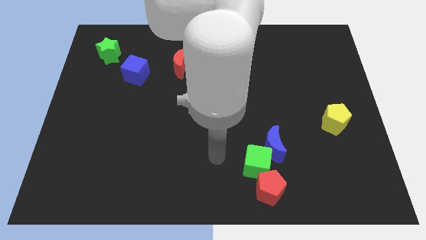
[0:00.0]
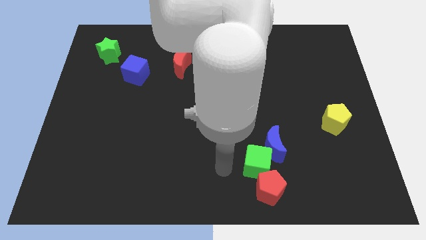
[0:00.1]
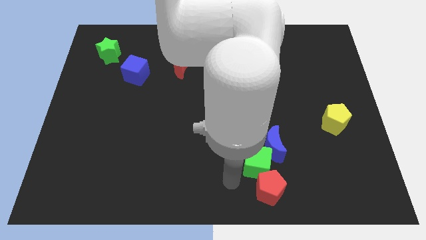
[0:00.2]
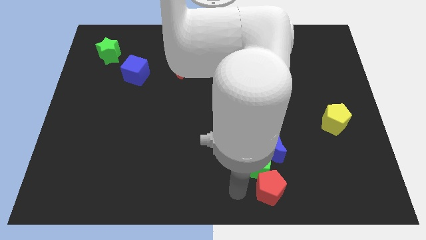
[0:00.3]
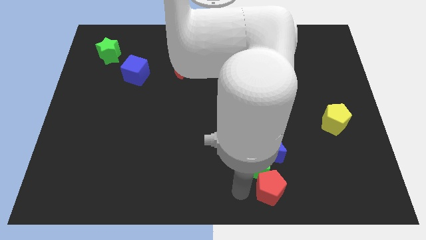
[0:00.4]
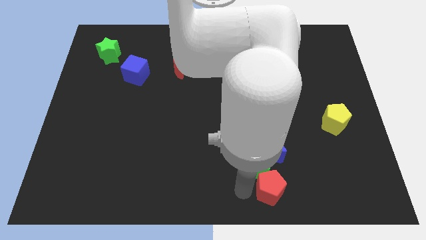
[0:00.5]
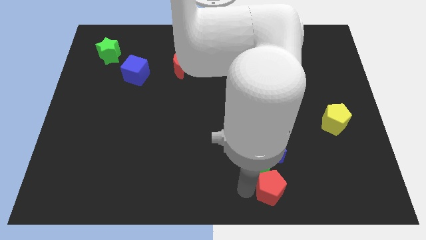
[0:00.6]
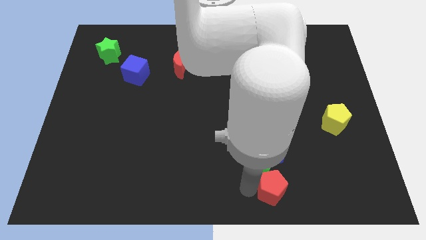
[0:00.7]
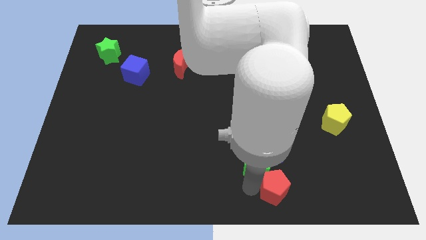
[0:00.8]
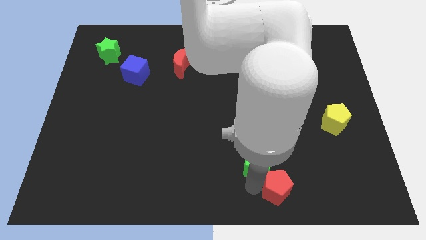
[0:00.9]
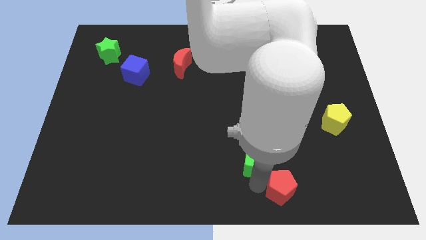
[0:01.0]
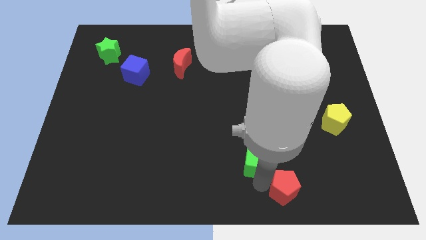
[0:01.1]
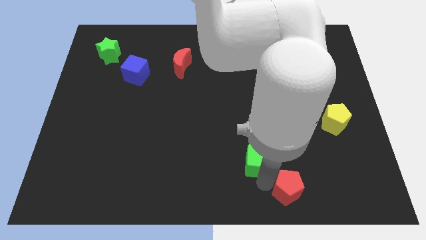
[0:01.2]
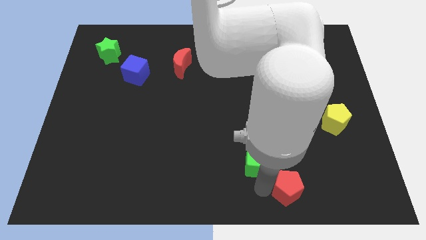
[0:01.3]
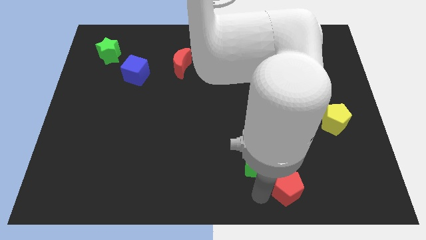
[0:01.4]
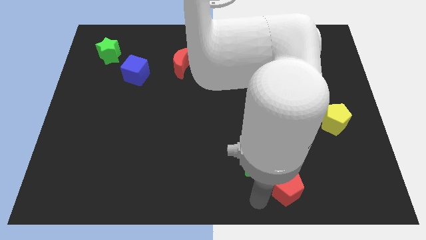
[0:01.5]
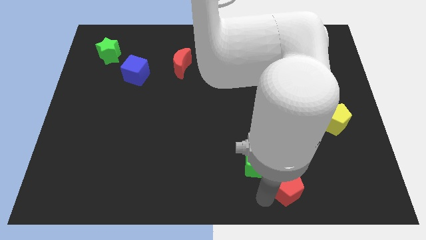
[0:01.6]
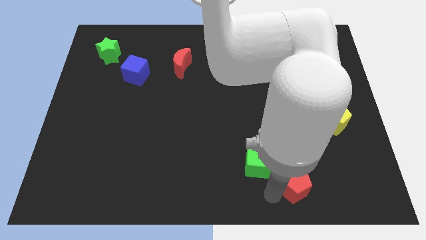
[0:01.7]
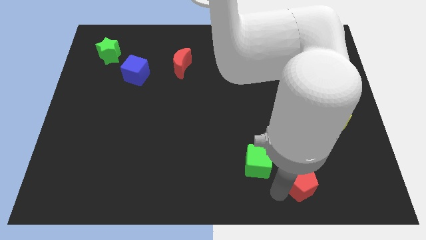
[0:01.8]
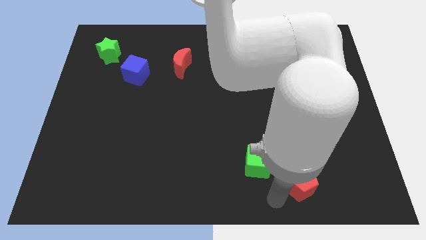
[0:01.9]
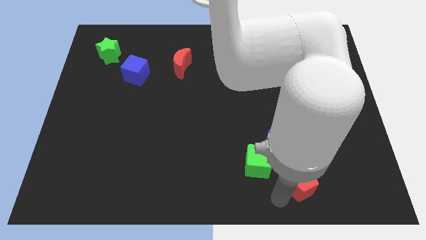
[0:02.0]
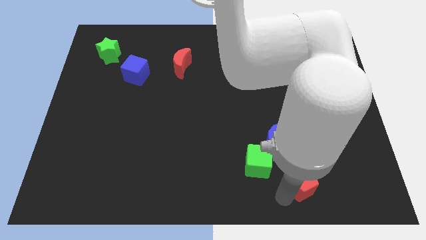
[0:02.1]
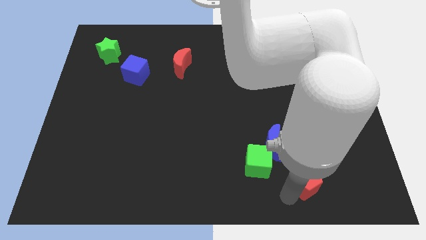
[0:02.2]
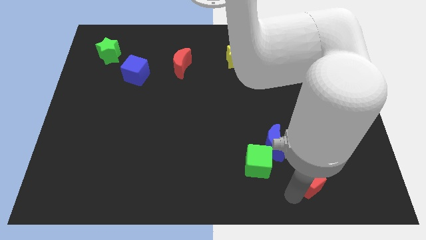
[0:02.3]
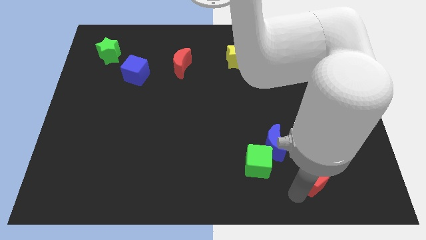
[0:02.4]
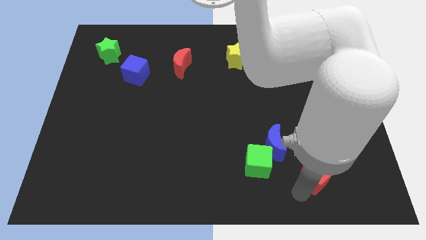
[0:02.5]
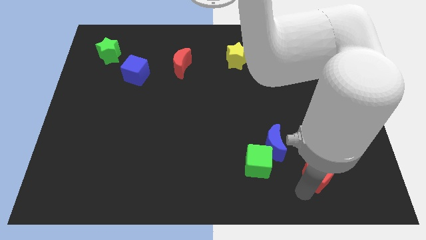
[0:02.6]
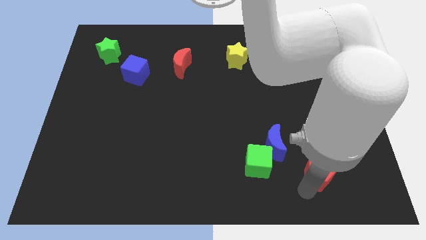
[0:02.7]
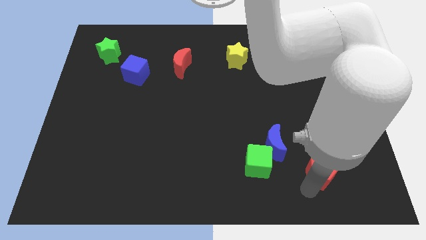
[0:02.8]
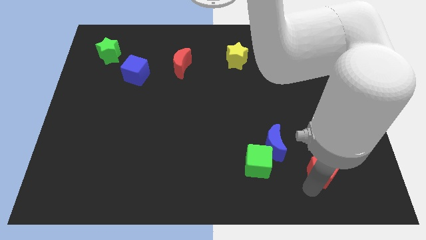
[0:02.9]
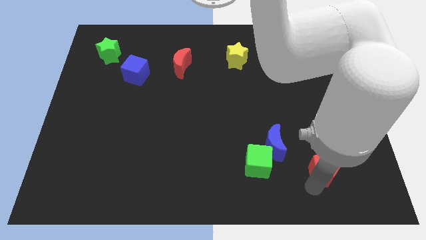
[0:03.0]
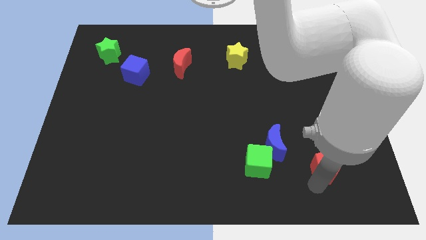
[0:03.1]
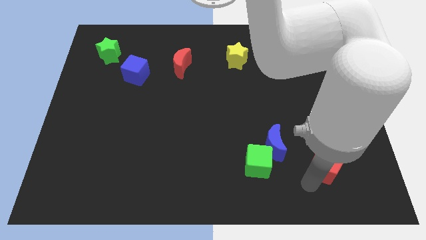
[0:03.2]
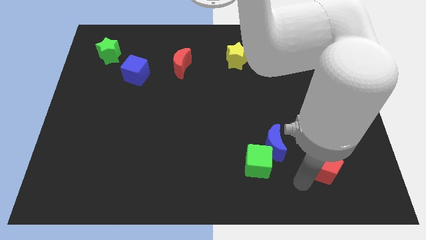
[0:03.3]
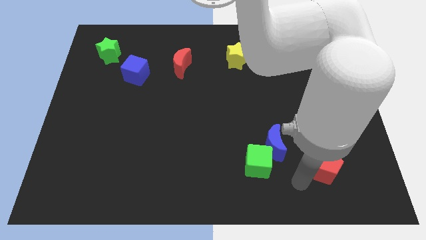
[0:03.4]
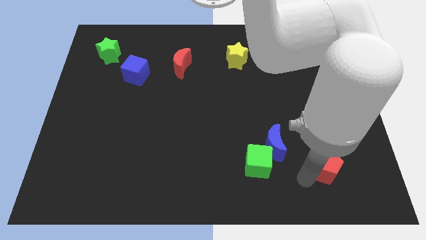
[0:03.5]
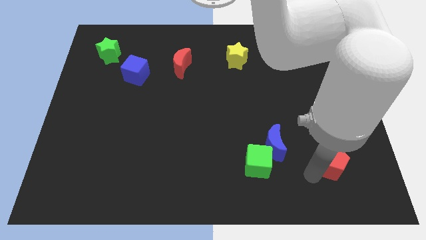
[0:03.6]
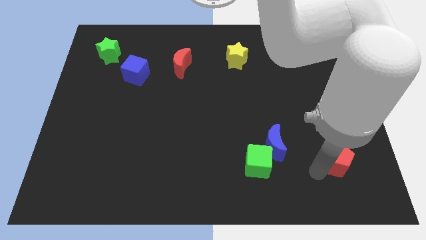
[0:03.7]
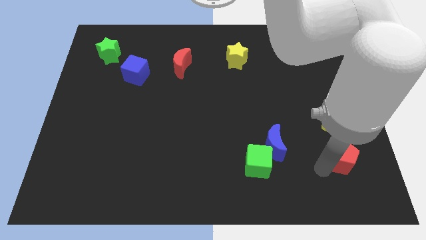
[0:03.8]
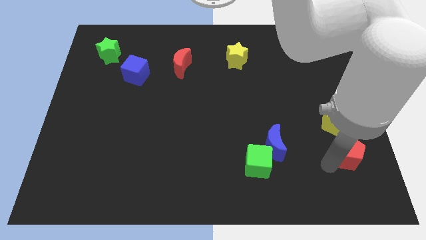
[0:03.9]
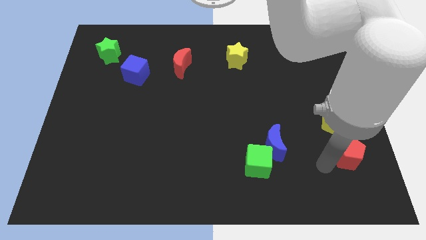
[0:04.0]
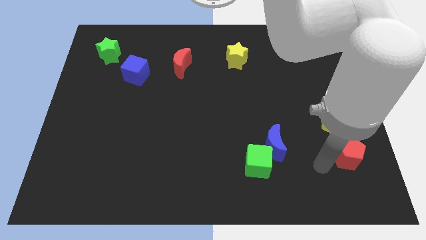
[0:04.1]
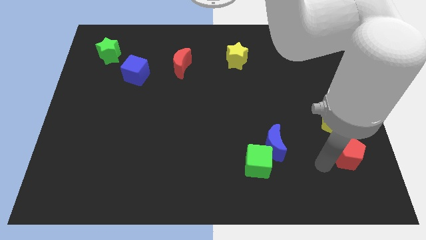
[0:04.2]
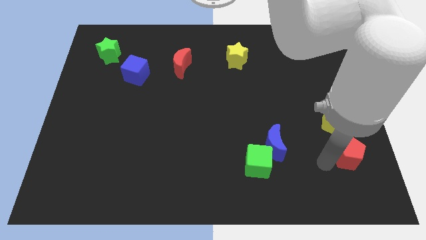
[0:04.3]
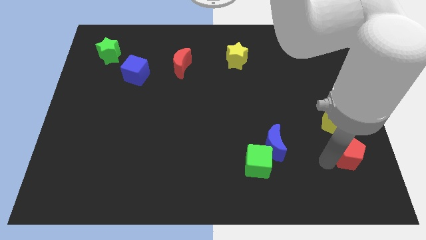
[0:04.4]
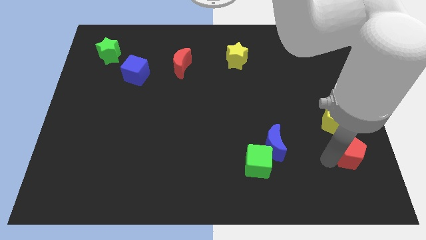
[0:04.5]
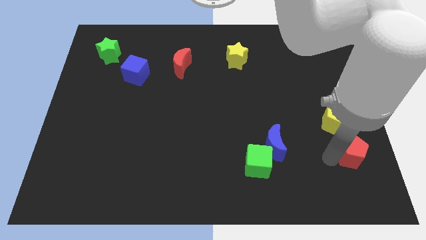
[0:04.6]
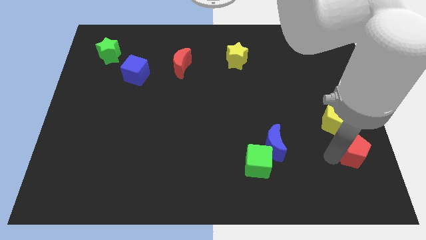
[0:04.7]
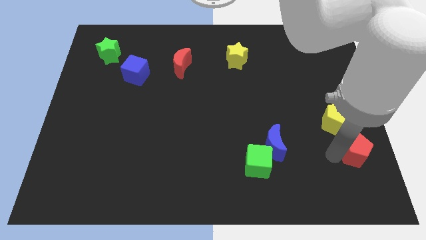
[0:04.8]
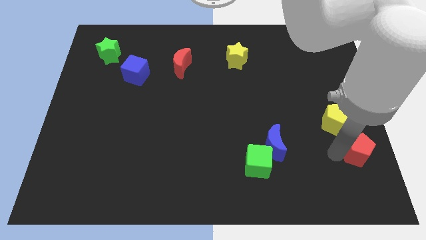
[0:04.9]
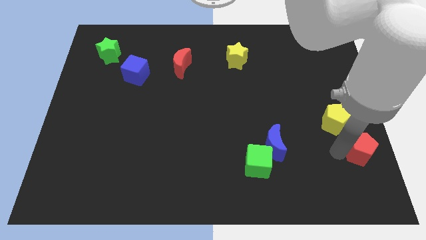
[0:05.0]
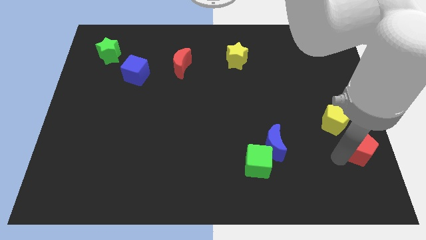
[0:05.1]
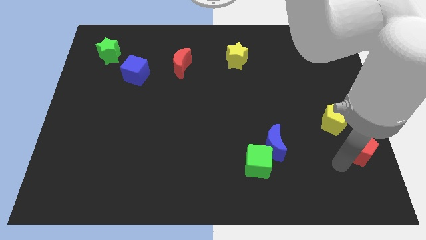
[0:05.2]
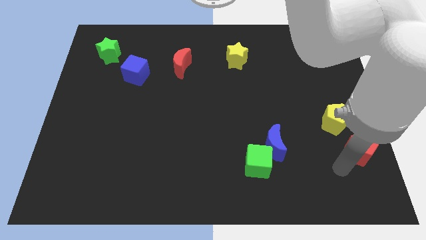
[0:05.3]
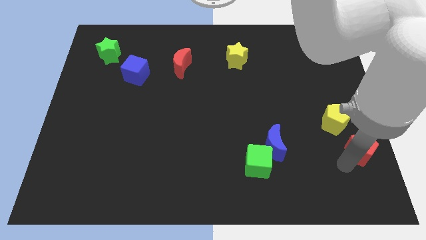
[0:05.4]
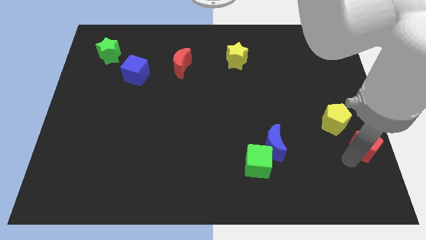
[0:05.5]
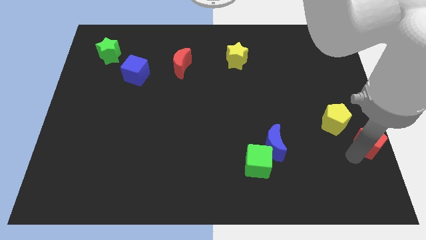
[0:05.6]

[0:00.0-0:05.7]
put the red pentagon to the center right
